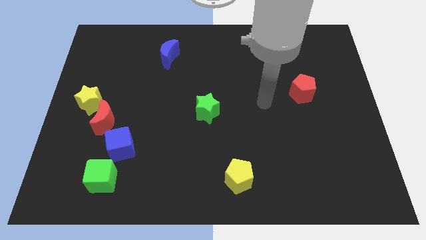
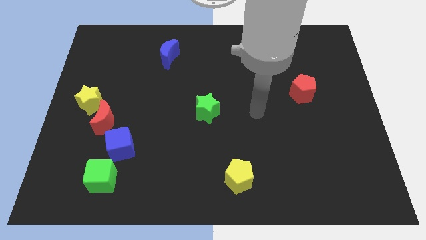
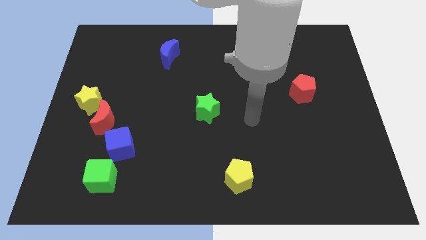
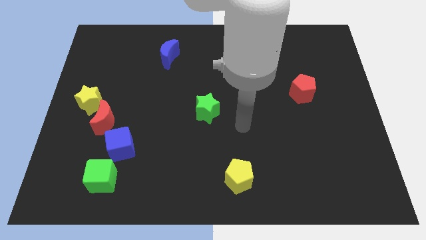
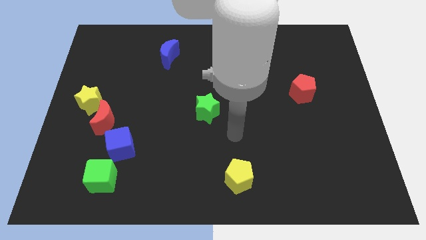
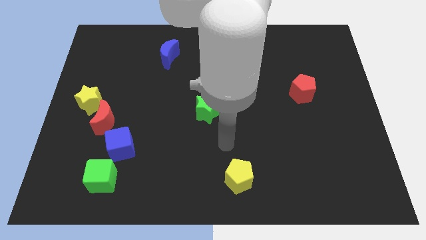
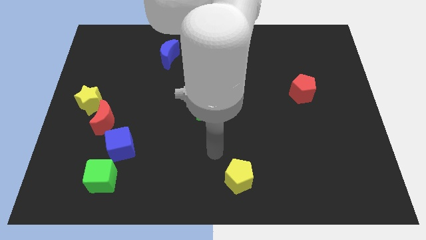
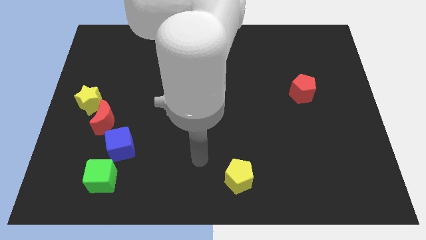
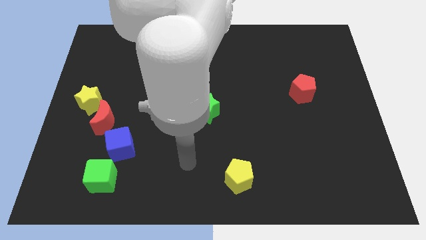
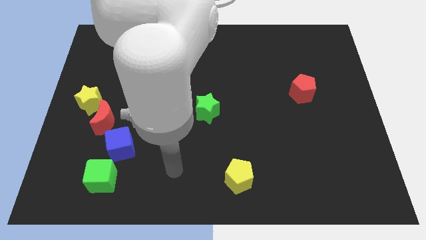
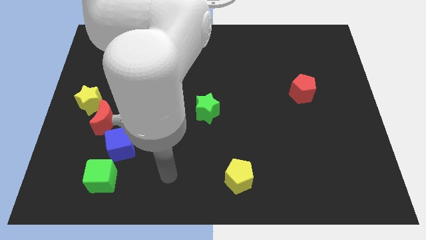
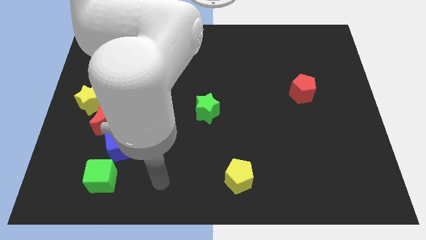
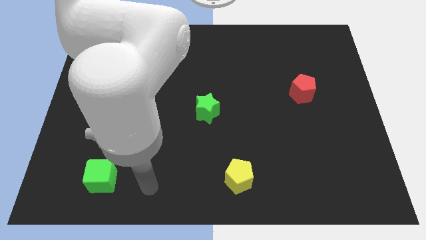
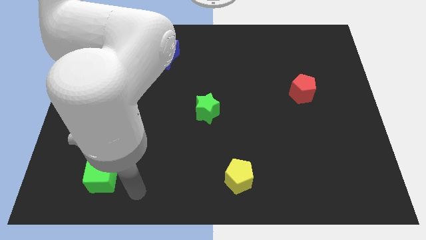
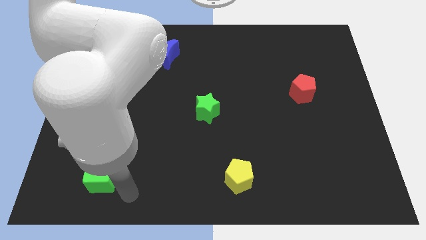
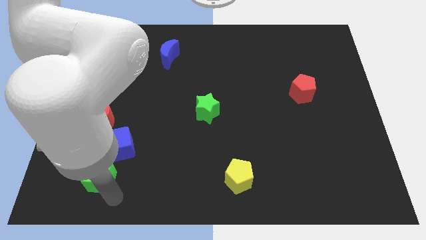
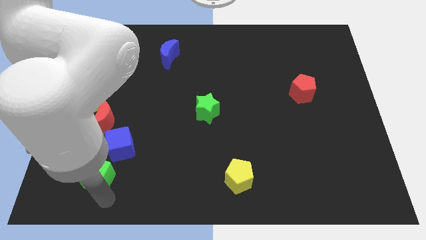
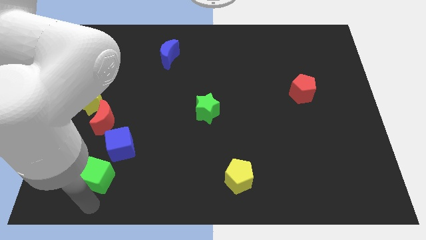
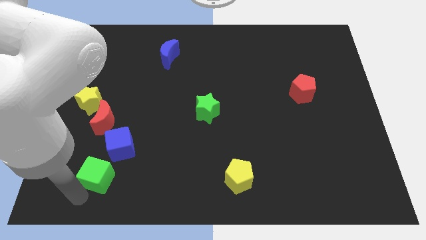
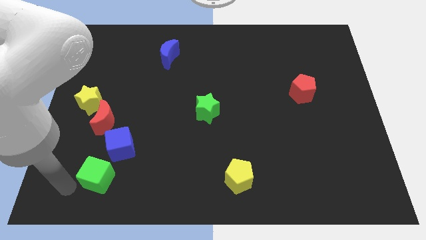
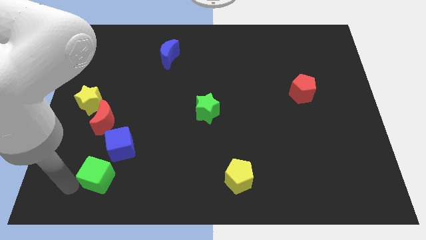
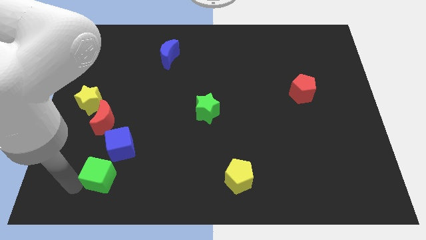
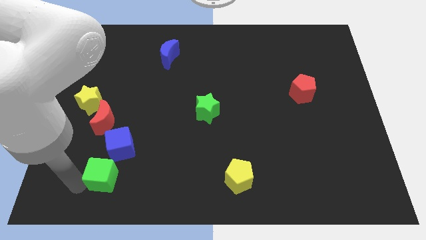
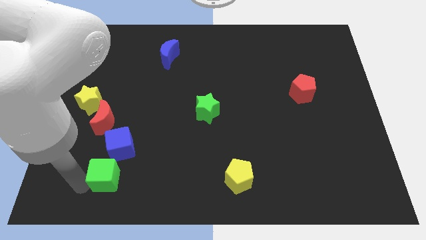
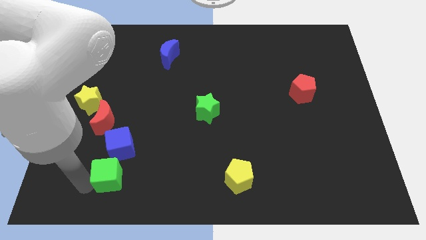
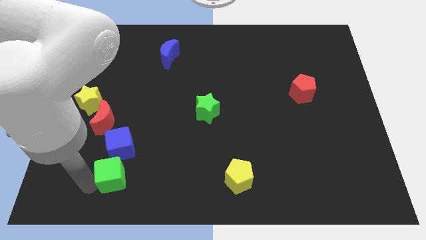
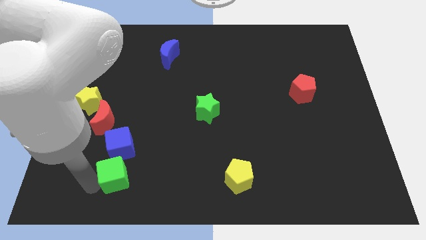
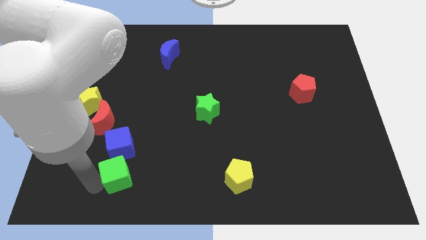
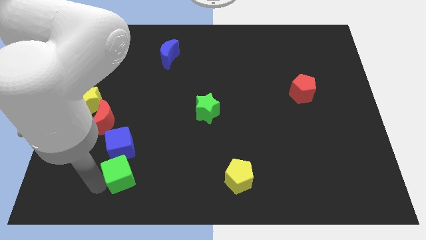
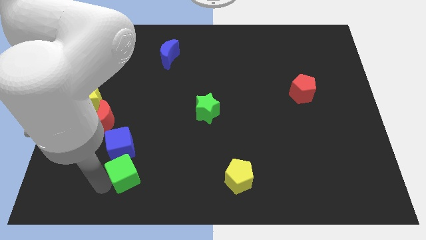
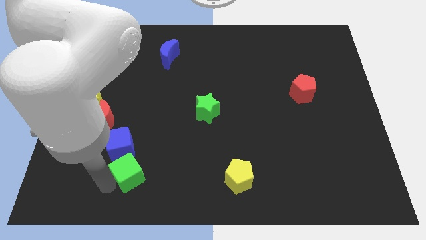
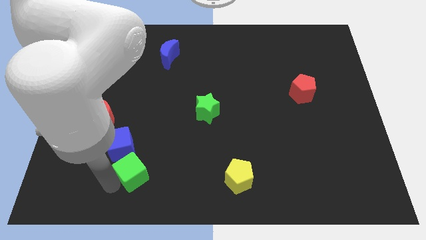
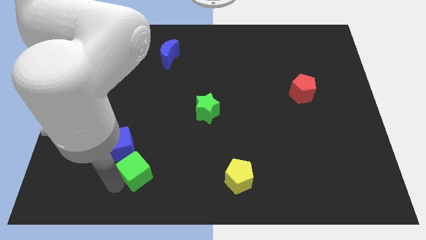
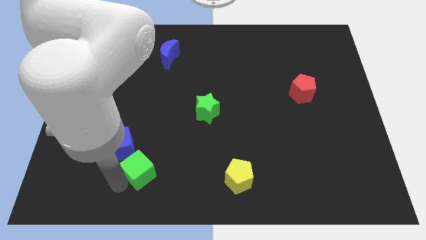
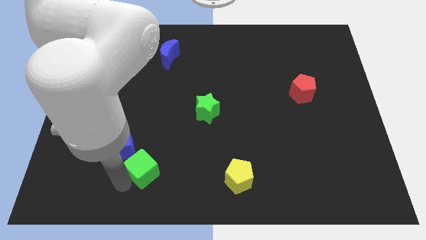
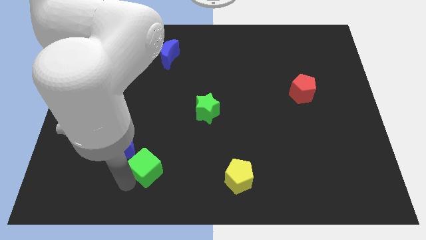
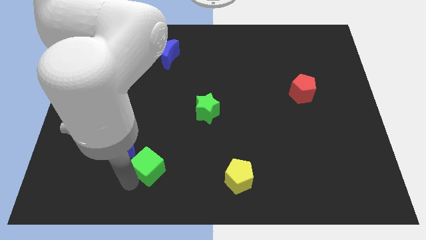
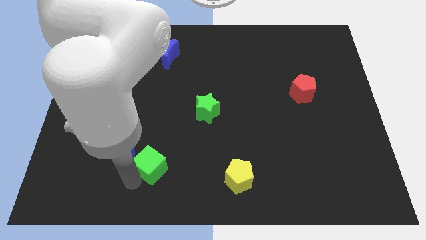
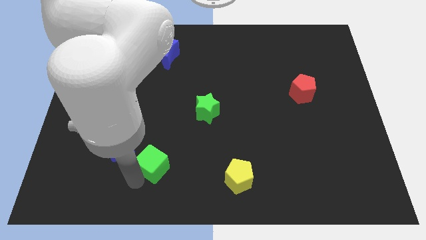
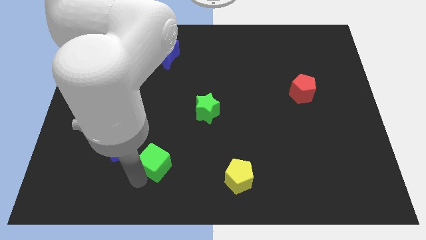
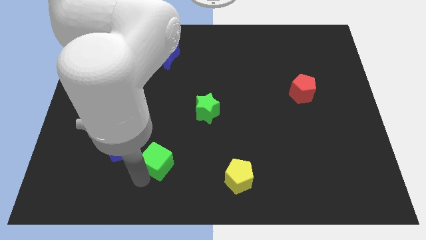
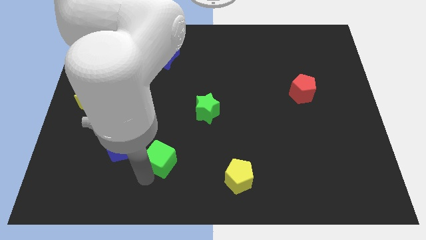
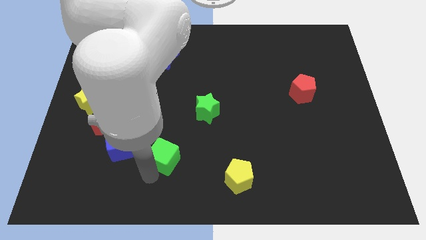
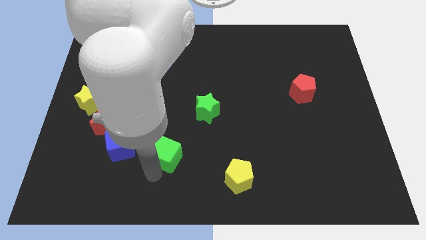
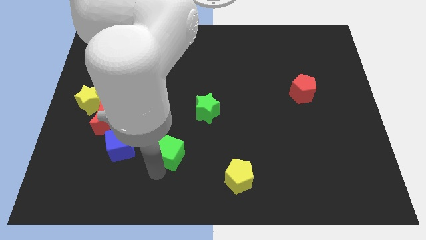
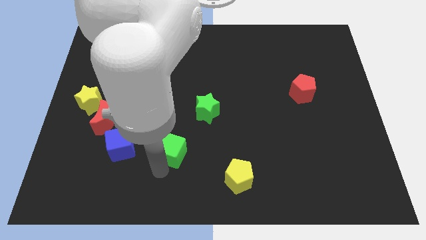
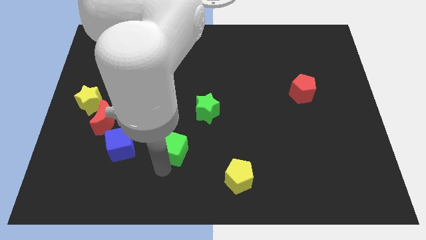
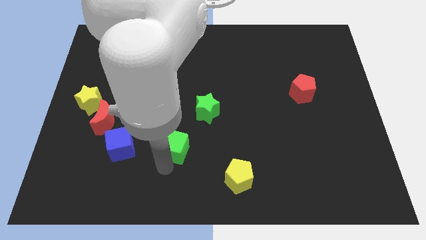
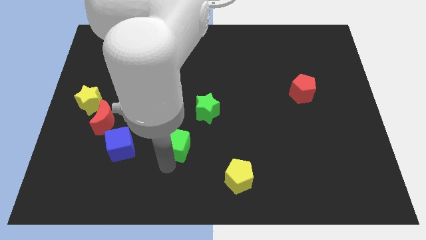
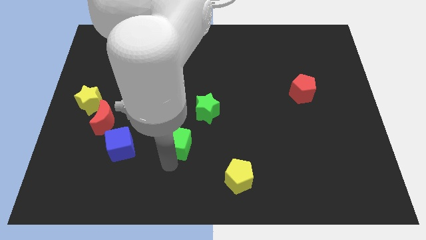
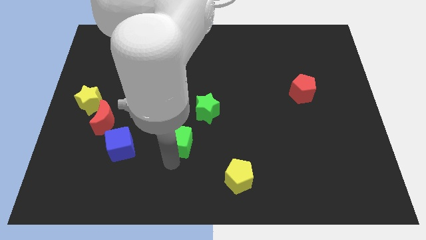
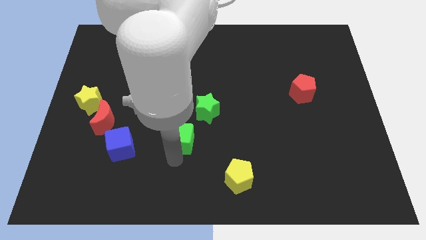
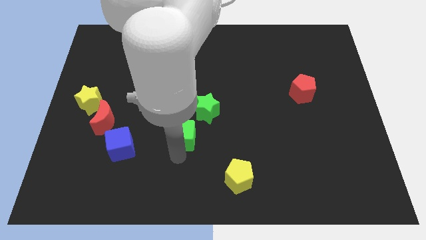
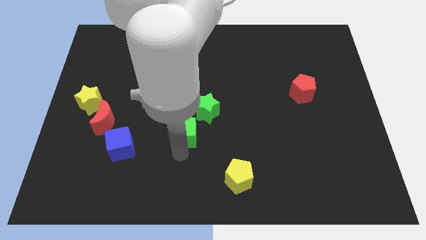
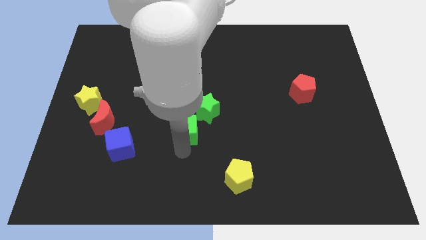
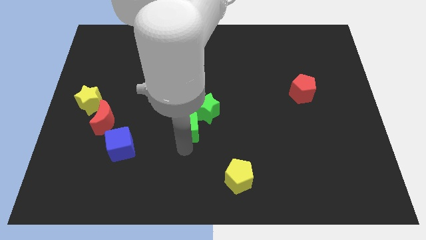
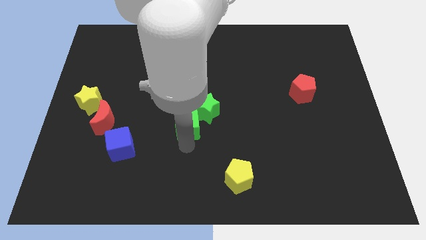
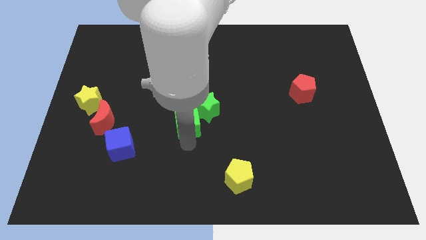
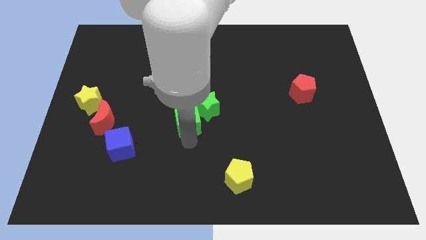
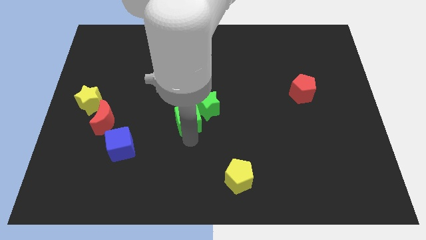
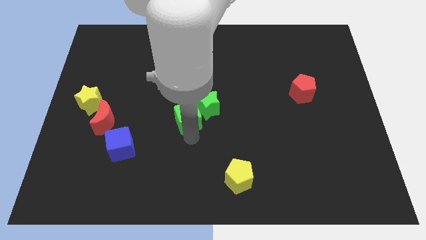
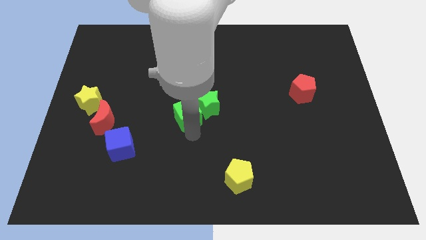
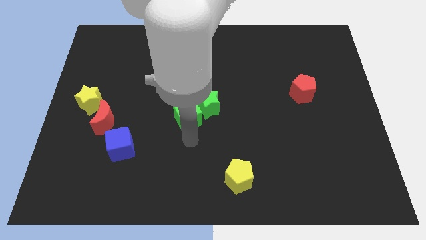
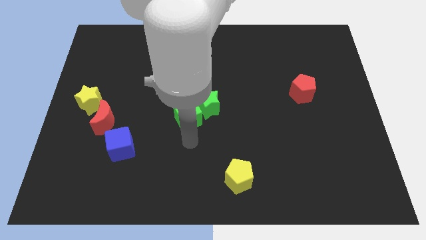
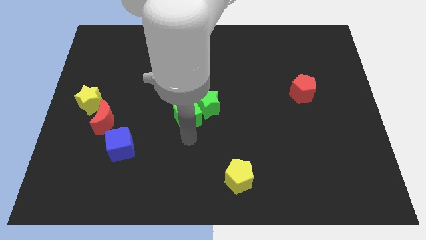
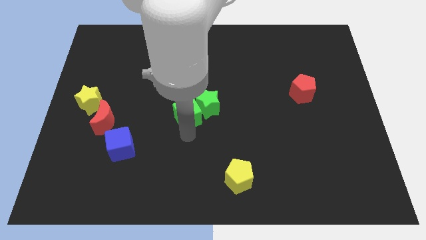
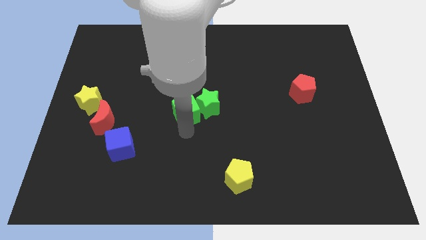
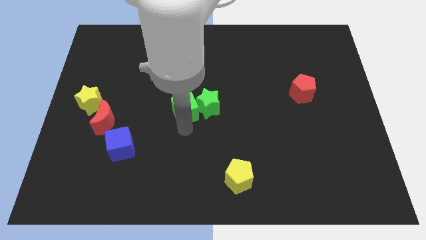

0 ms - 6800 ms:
push the green cube to the top left side of the green star

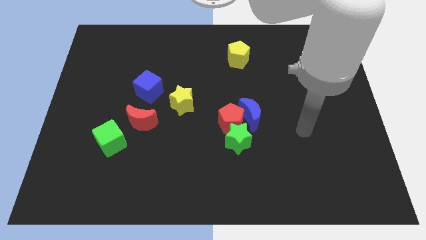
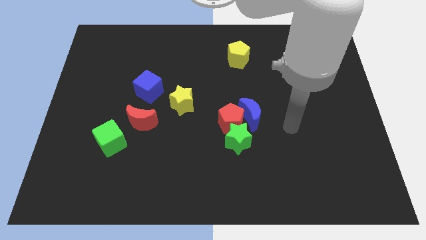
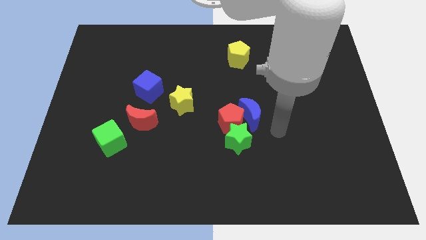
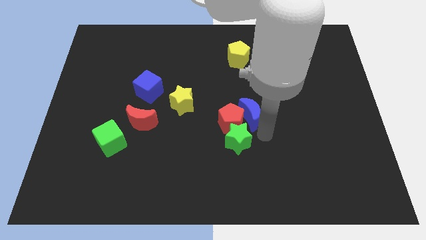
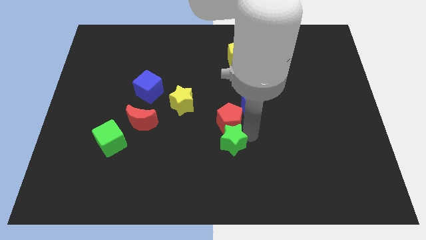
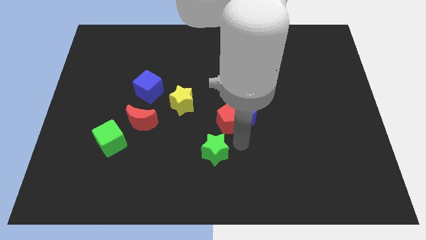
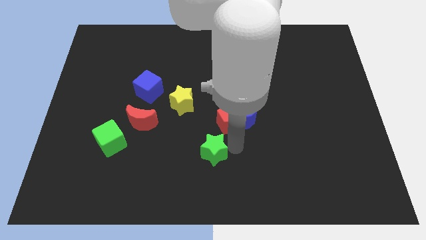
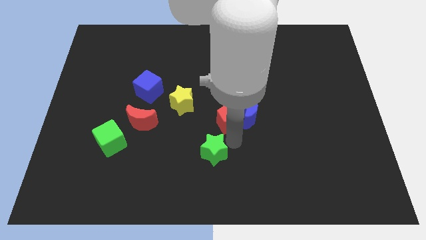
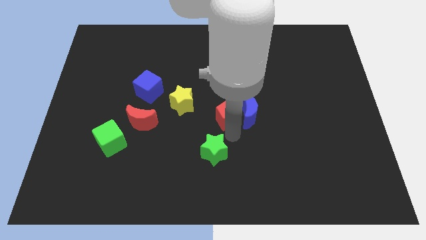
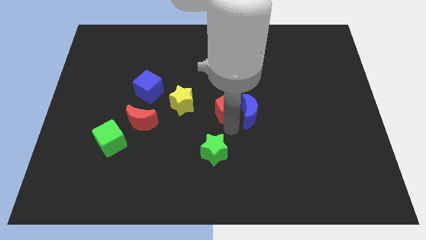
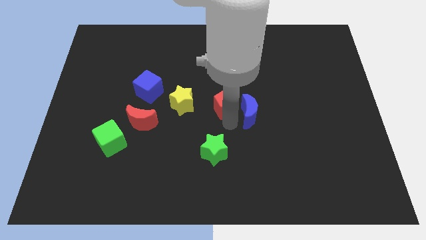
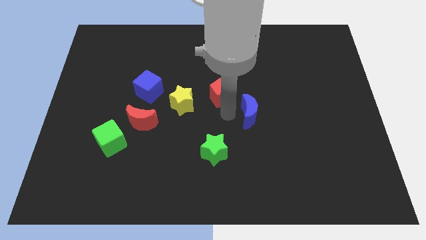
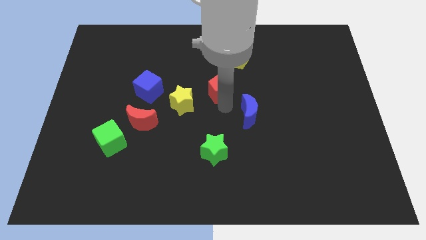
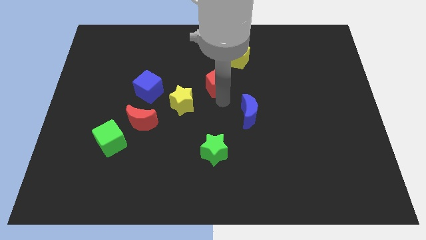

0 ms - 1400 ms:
push the red pentagon diagonally down and to the left of the yellow pentagon
